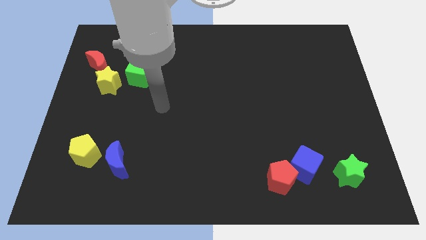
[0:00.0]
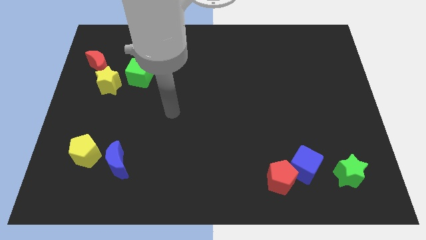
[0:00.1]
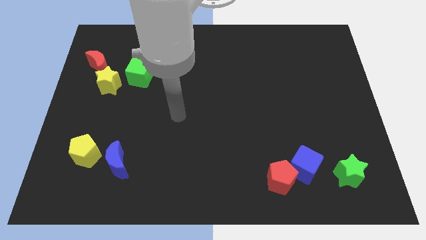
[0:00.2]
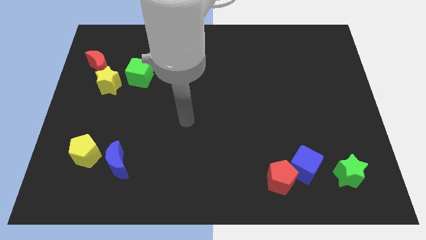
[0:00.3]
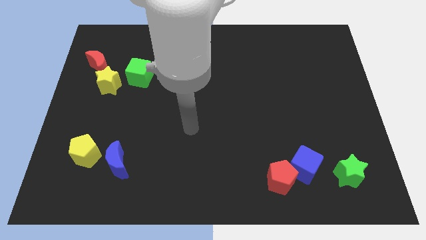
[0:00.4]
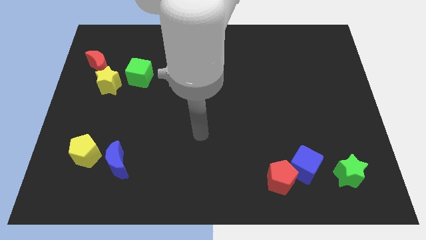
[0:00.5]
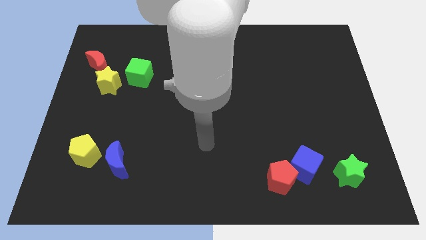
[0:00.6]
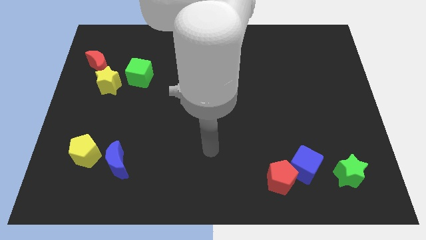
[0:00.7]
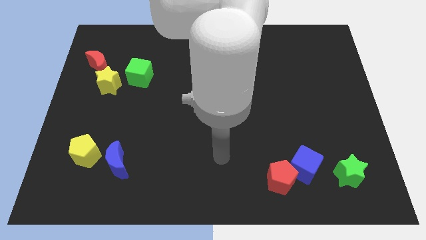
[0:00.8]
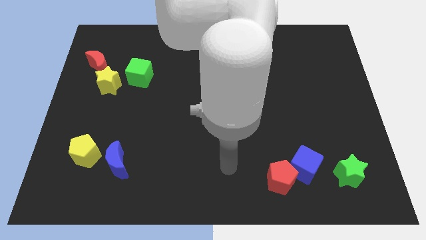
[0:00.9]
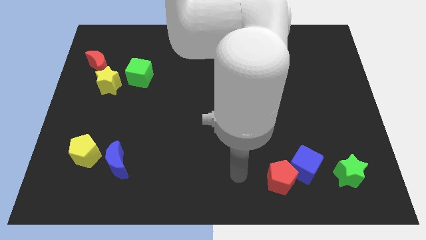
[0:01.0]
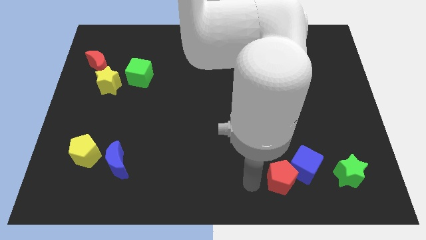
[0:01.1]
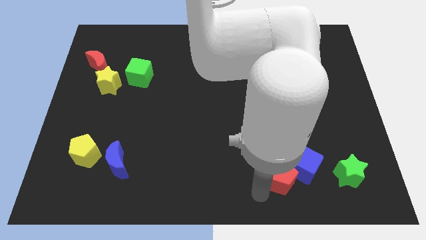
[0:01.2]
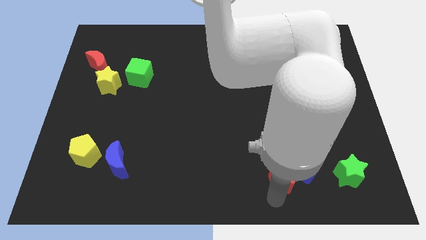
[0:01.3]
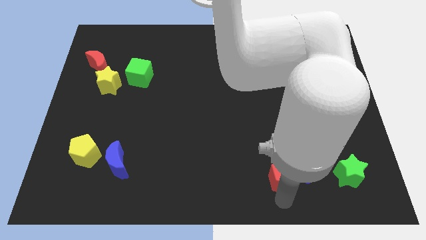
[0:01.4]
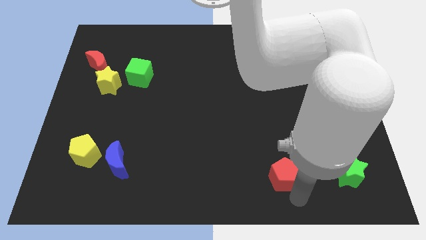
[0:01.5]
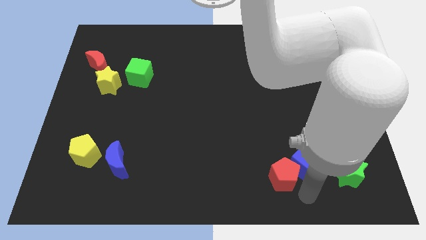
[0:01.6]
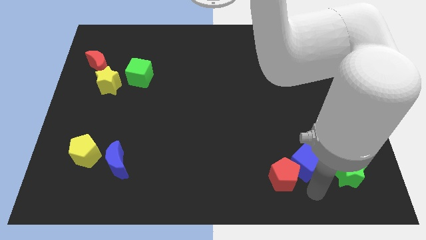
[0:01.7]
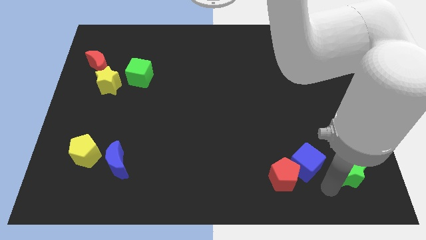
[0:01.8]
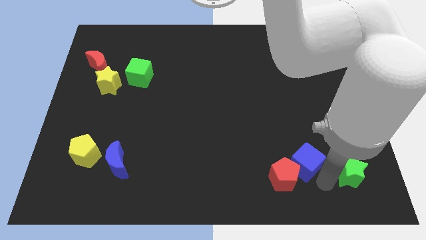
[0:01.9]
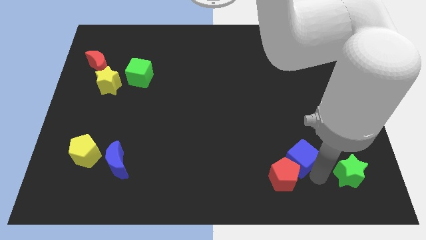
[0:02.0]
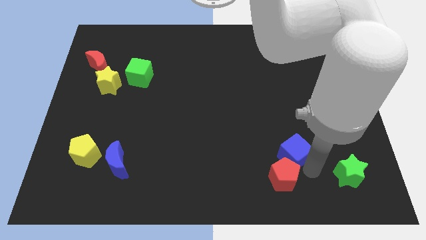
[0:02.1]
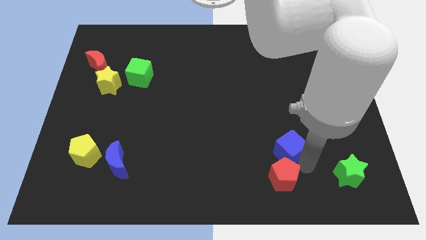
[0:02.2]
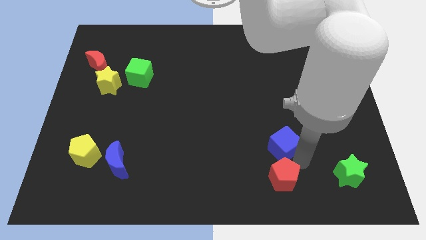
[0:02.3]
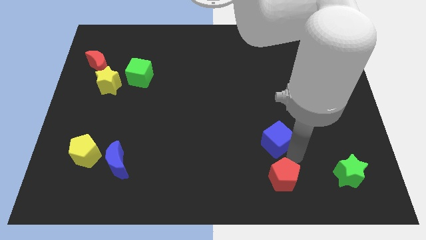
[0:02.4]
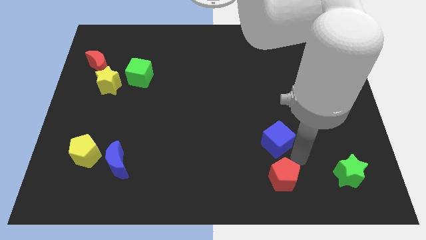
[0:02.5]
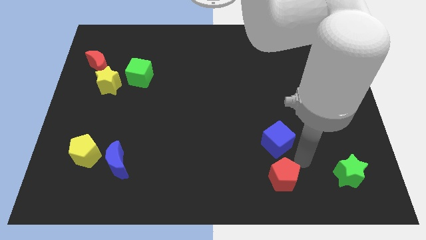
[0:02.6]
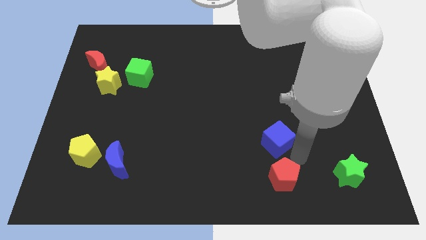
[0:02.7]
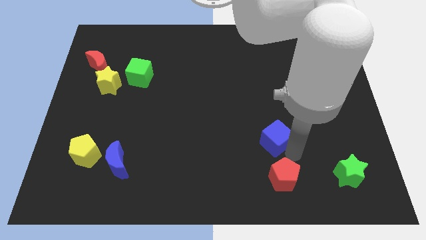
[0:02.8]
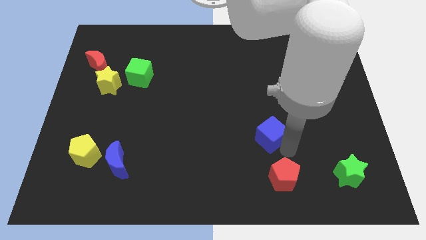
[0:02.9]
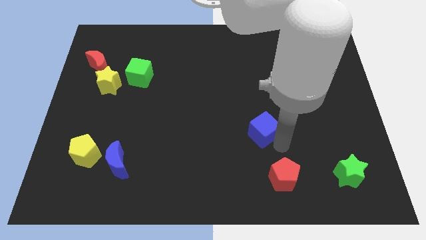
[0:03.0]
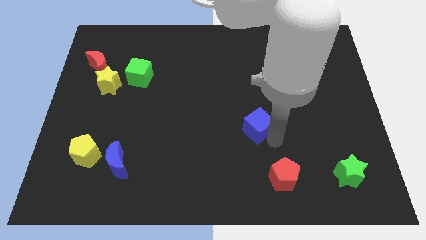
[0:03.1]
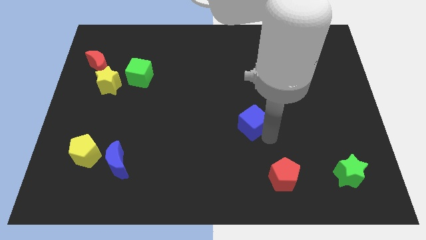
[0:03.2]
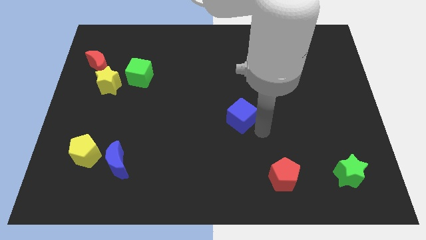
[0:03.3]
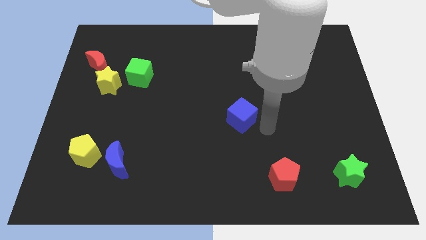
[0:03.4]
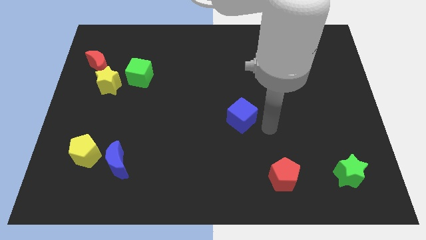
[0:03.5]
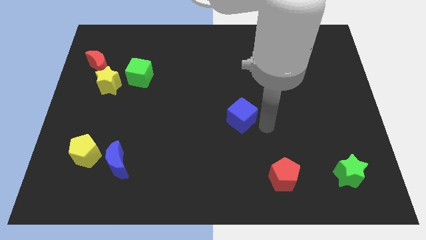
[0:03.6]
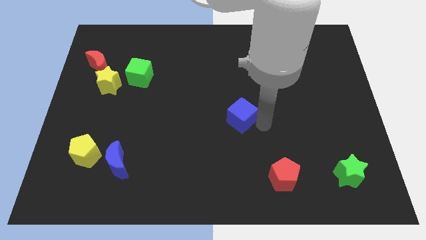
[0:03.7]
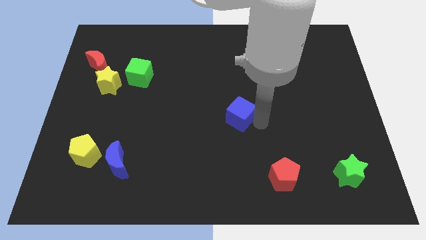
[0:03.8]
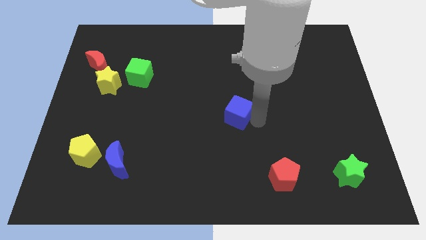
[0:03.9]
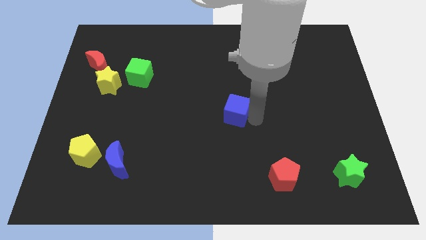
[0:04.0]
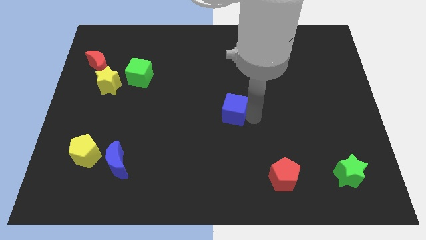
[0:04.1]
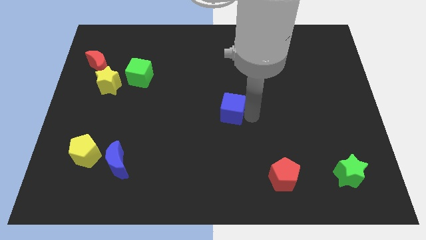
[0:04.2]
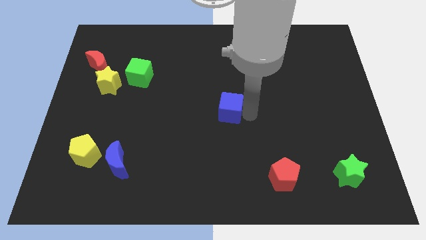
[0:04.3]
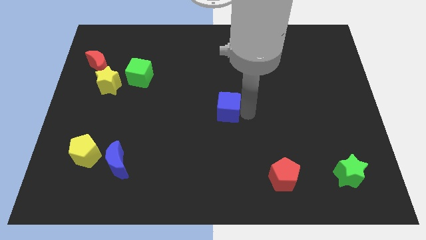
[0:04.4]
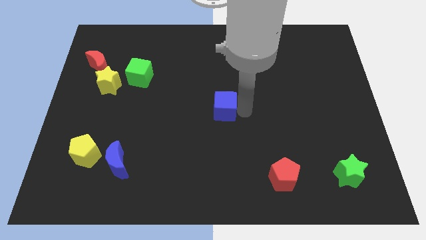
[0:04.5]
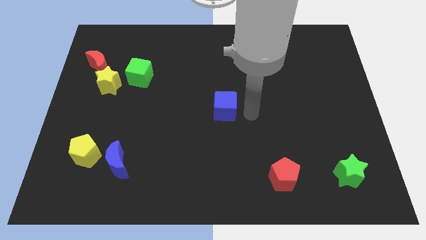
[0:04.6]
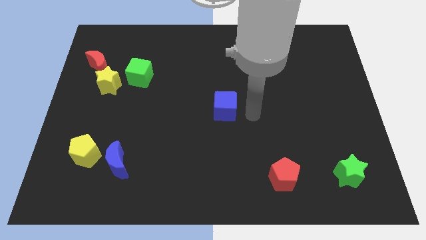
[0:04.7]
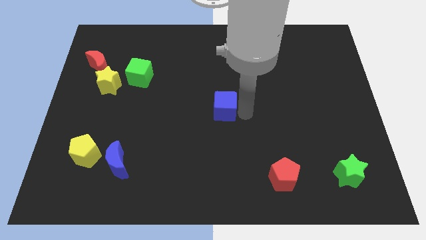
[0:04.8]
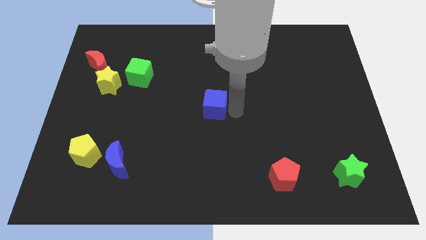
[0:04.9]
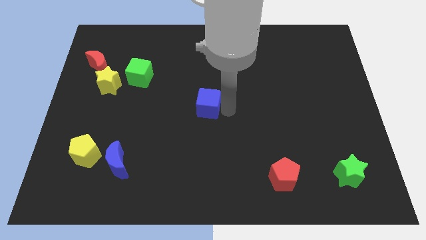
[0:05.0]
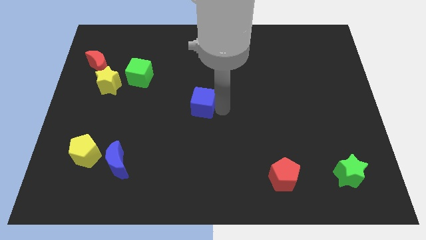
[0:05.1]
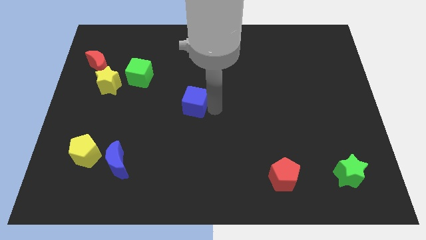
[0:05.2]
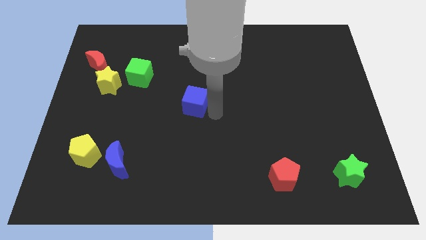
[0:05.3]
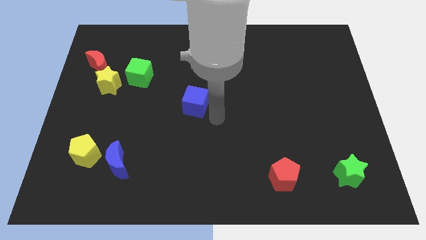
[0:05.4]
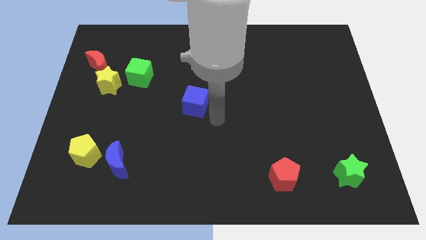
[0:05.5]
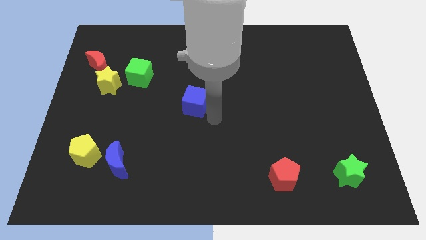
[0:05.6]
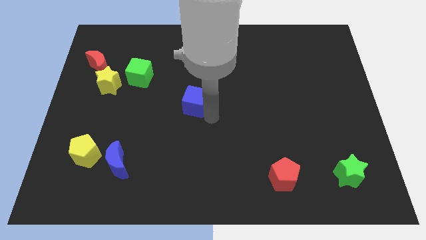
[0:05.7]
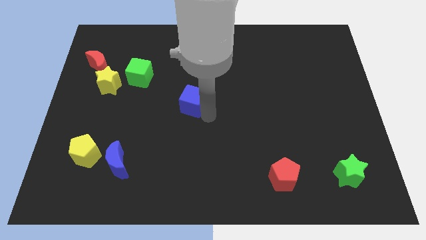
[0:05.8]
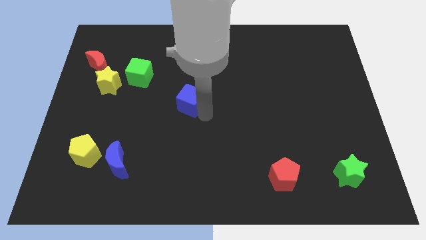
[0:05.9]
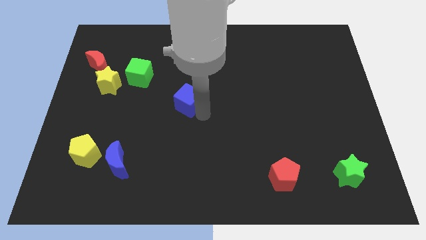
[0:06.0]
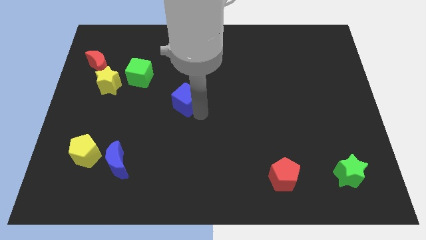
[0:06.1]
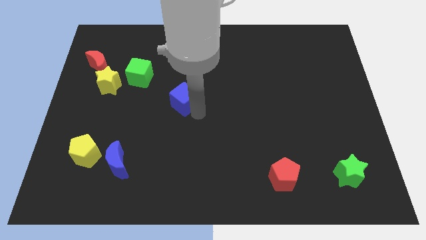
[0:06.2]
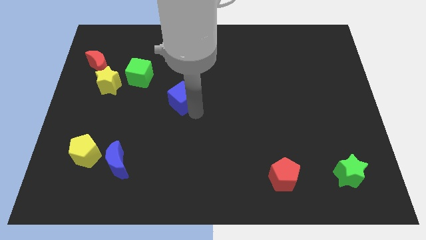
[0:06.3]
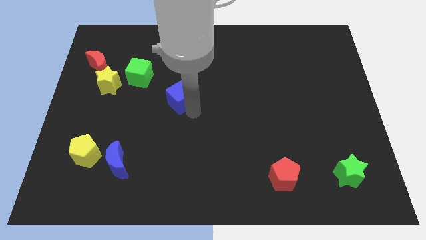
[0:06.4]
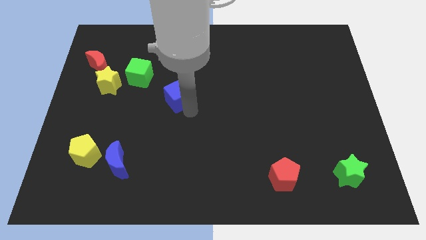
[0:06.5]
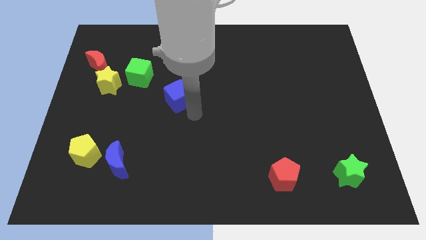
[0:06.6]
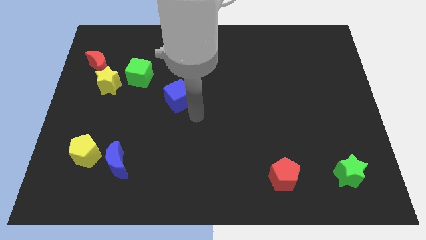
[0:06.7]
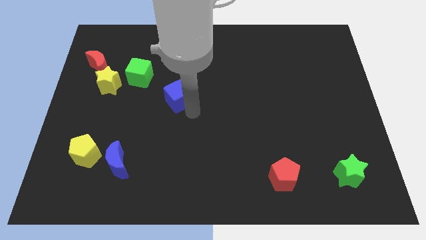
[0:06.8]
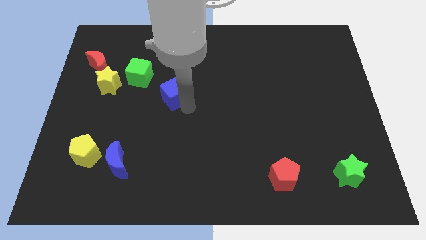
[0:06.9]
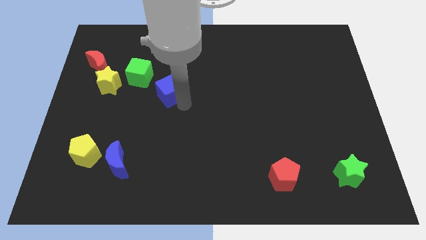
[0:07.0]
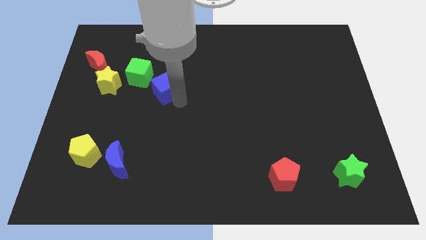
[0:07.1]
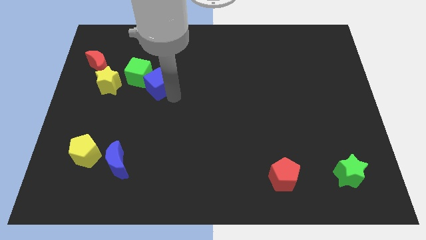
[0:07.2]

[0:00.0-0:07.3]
slide the blue cube next to the green cube
